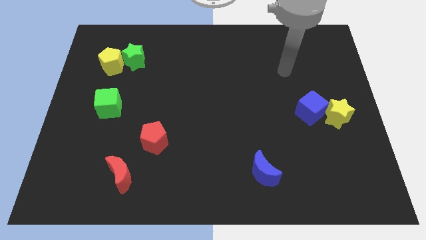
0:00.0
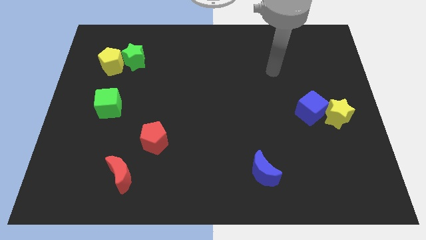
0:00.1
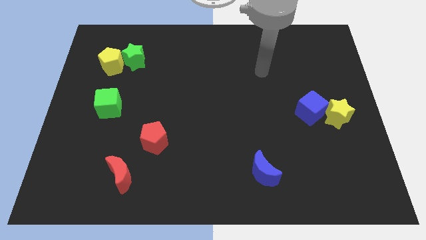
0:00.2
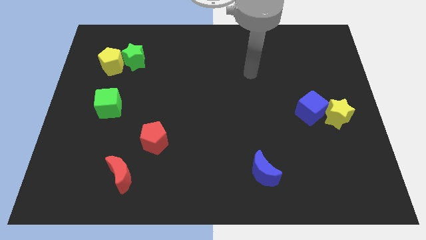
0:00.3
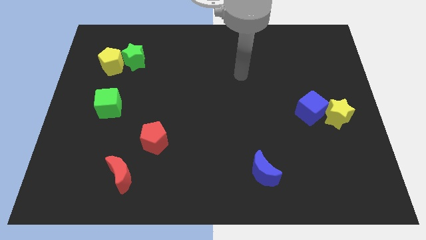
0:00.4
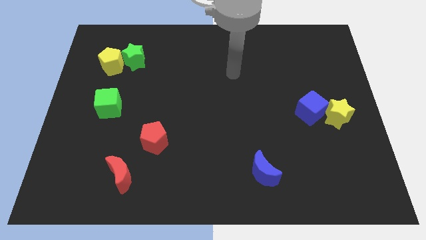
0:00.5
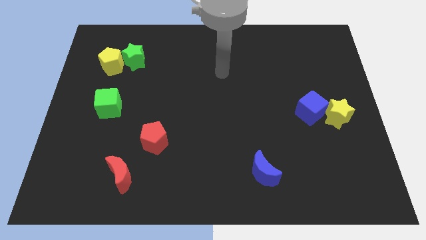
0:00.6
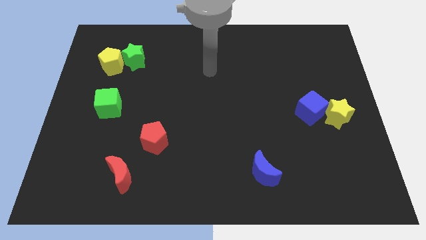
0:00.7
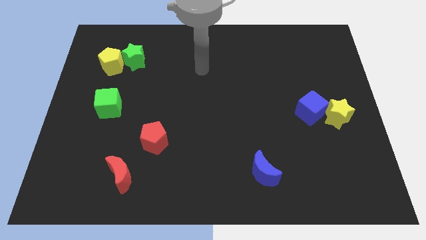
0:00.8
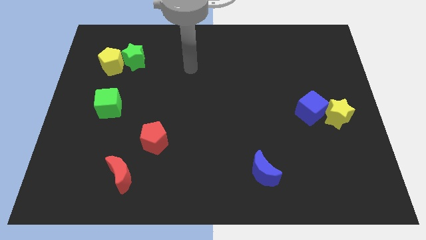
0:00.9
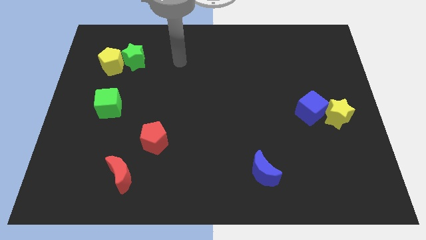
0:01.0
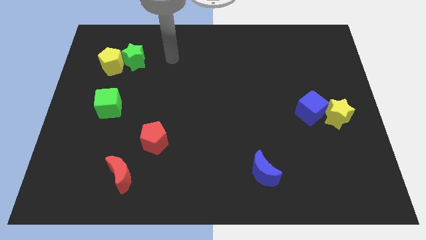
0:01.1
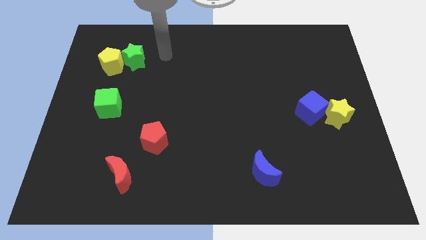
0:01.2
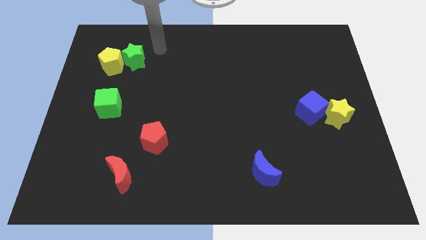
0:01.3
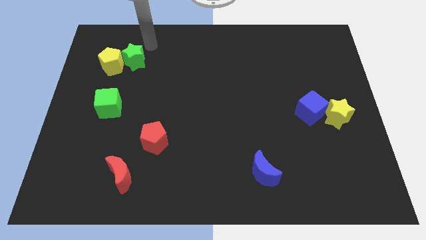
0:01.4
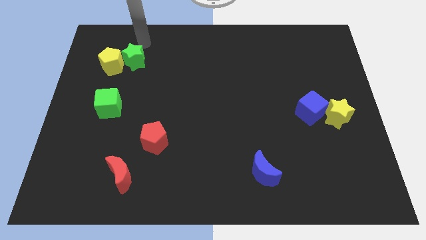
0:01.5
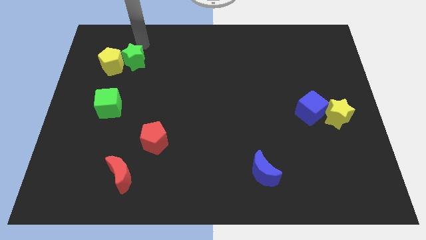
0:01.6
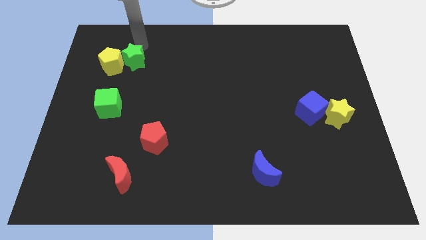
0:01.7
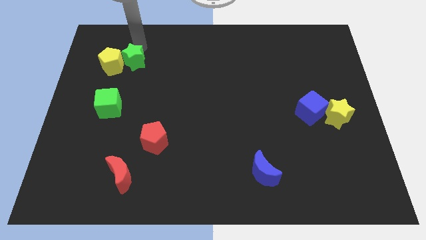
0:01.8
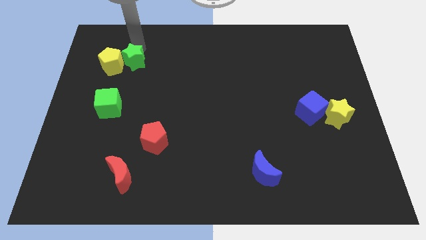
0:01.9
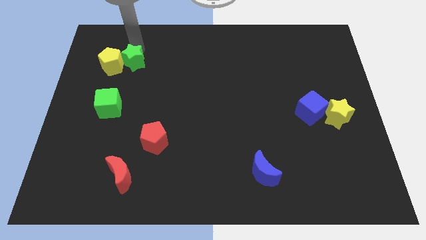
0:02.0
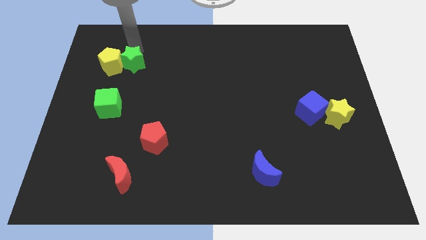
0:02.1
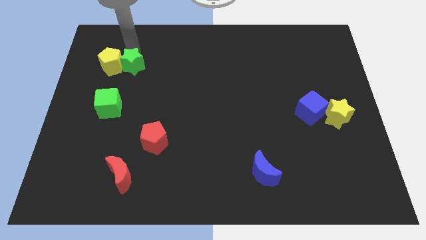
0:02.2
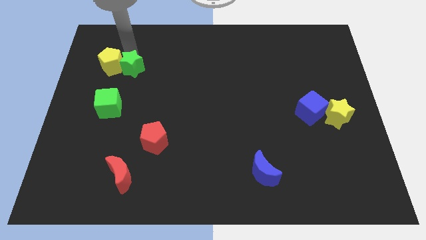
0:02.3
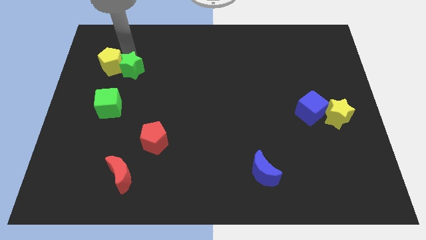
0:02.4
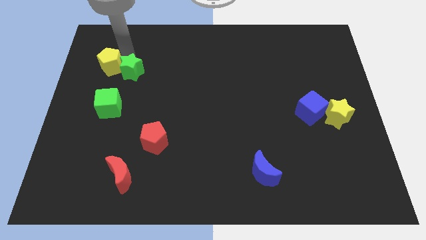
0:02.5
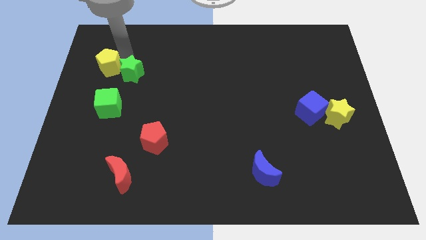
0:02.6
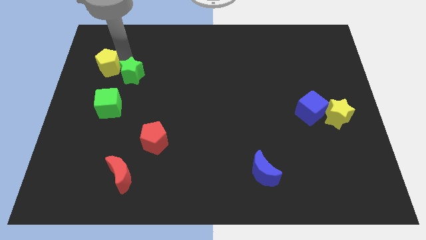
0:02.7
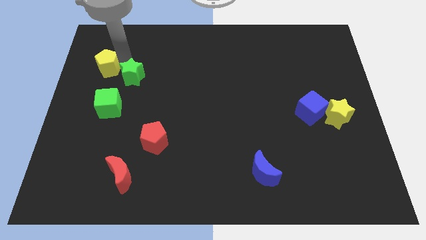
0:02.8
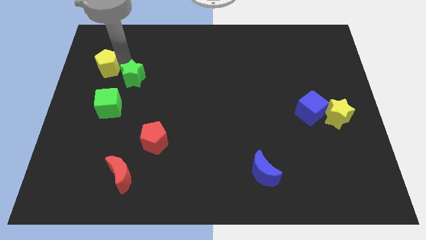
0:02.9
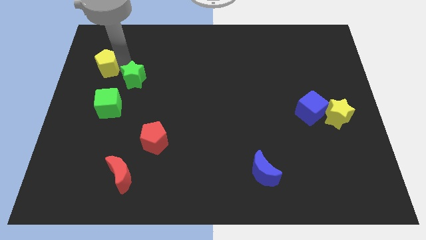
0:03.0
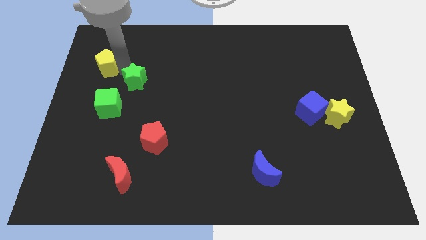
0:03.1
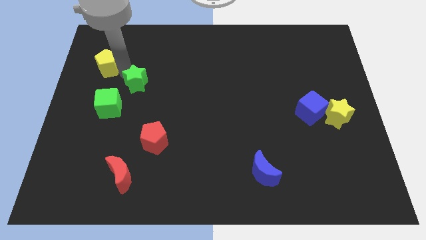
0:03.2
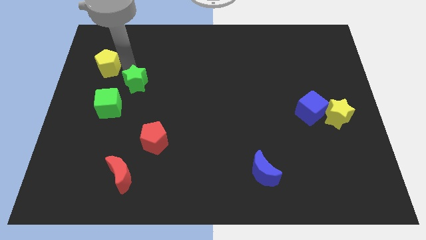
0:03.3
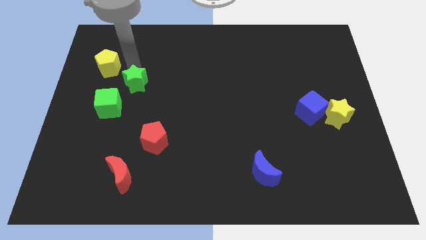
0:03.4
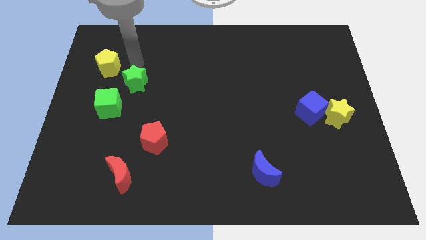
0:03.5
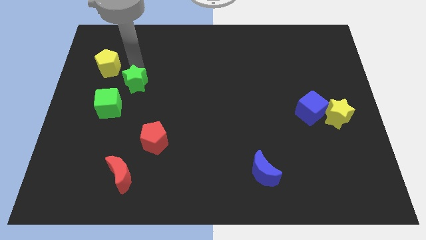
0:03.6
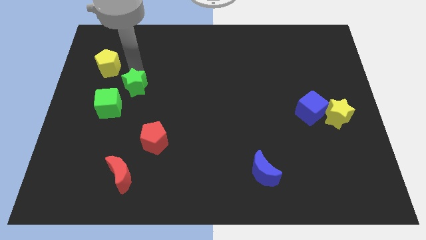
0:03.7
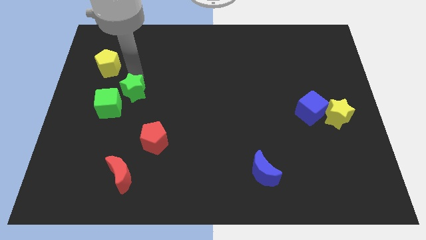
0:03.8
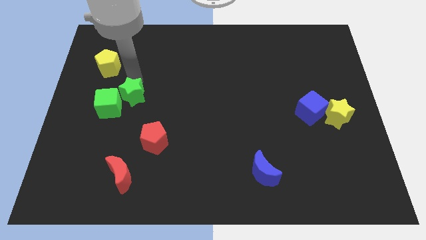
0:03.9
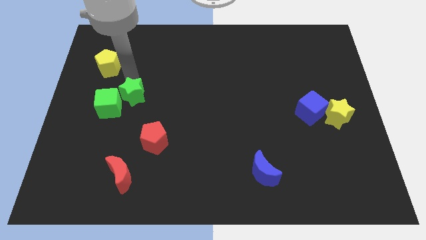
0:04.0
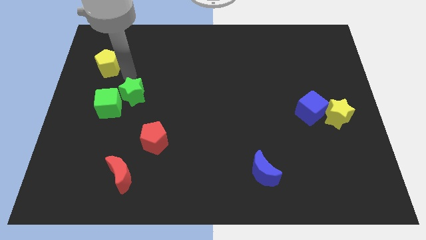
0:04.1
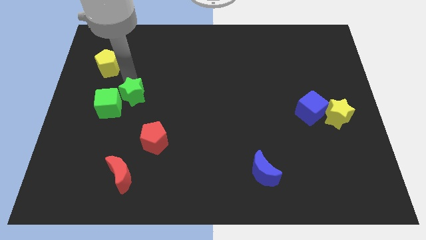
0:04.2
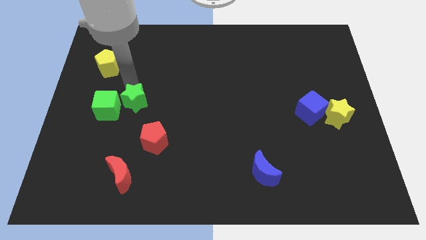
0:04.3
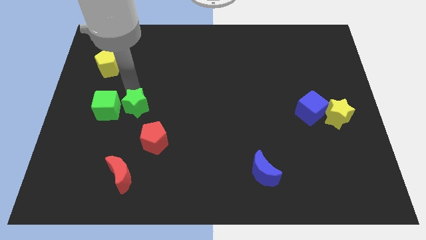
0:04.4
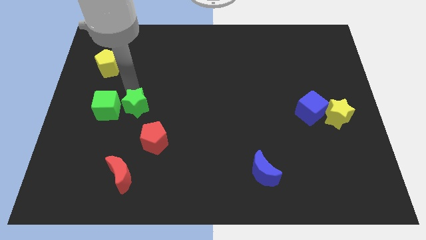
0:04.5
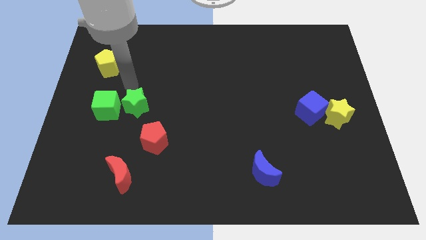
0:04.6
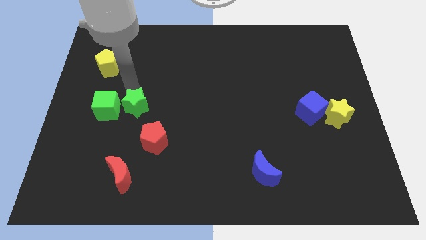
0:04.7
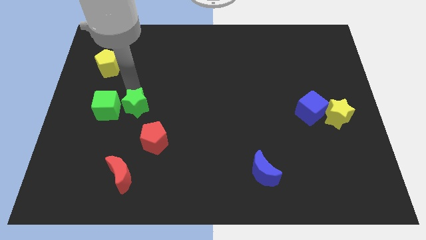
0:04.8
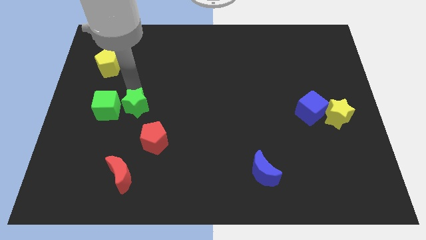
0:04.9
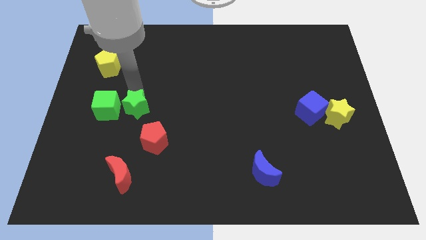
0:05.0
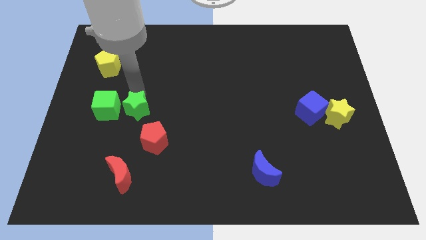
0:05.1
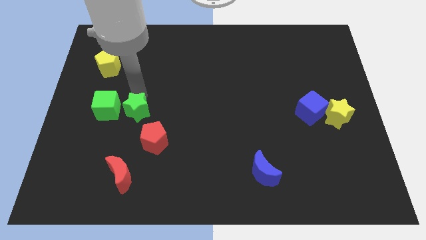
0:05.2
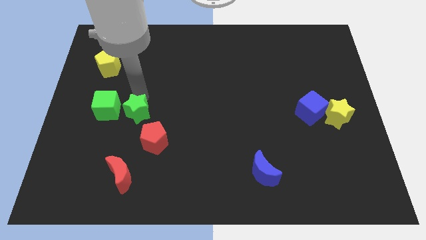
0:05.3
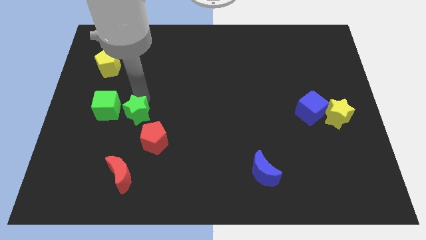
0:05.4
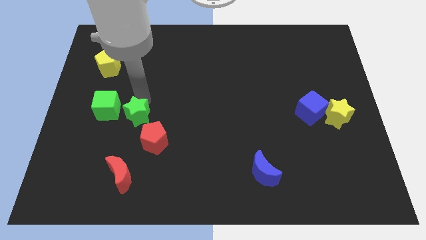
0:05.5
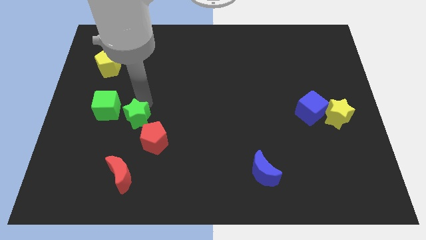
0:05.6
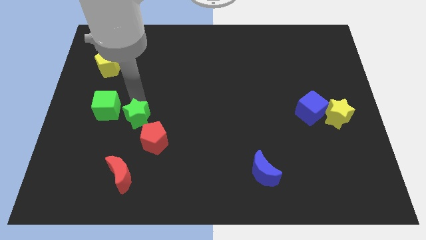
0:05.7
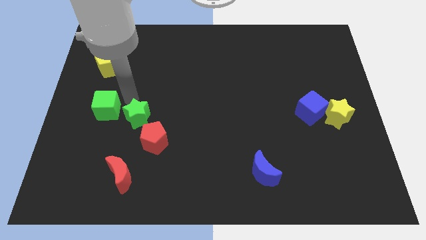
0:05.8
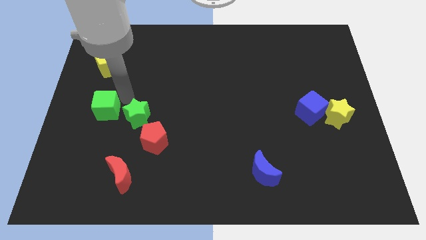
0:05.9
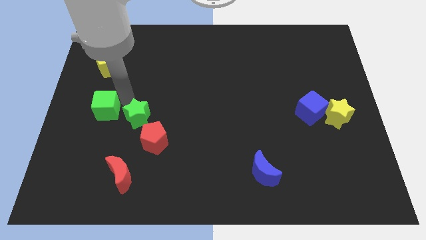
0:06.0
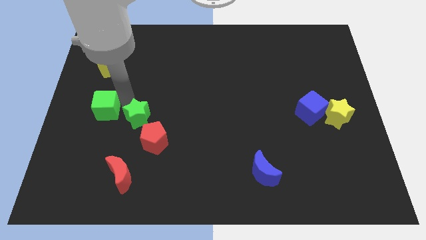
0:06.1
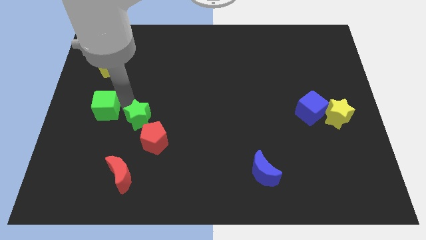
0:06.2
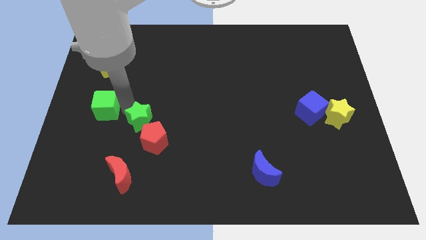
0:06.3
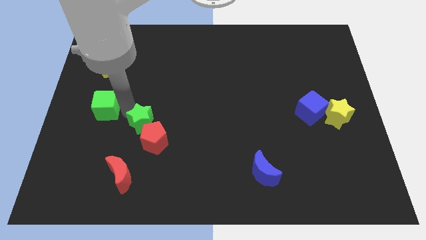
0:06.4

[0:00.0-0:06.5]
put the green star towards the red pentagon

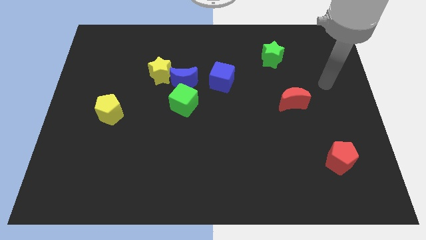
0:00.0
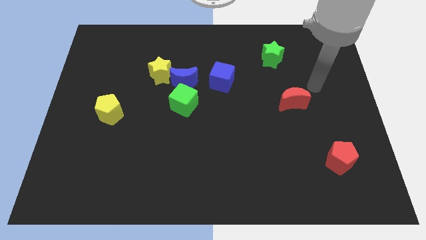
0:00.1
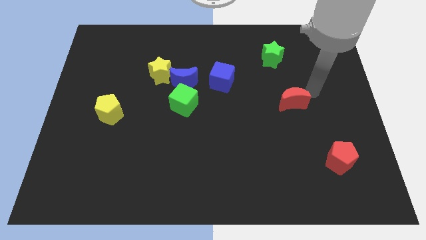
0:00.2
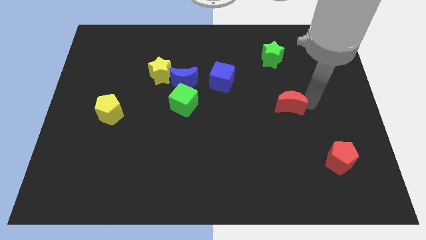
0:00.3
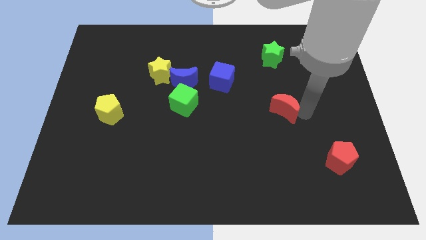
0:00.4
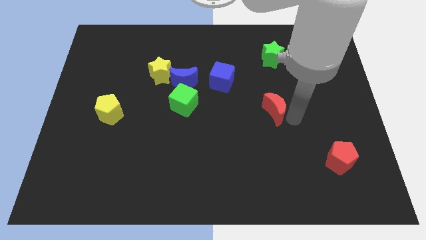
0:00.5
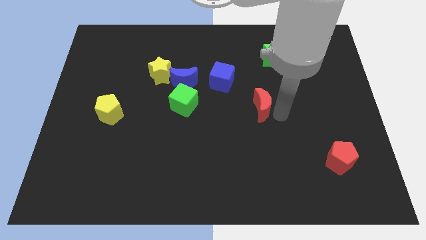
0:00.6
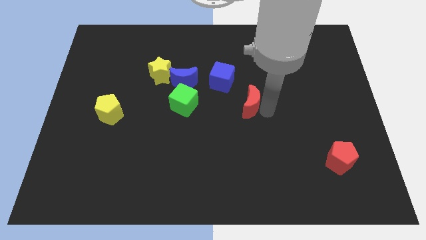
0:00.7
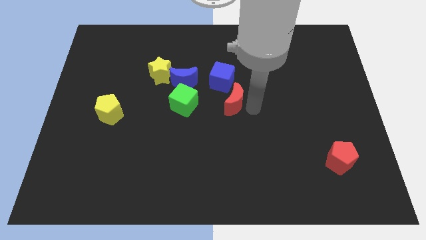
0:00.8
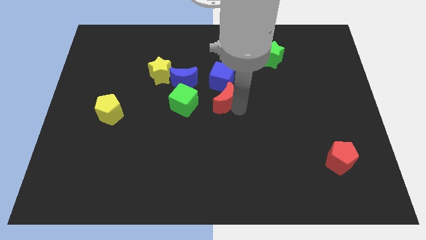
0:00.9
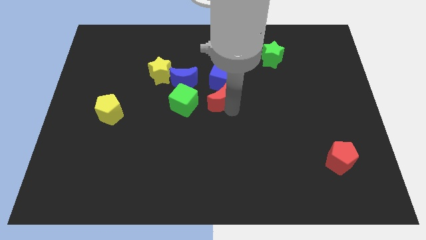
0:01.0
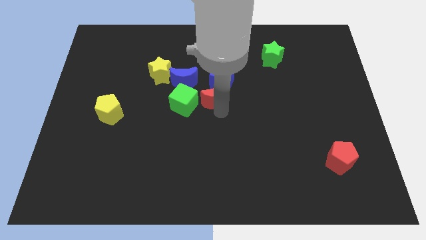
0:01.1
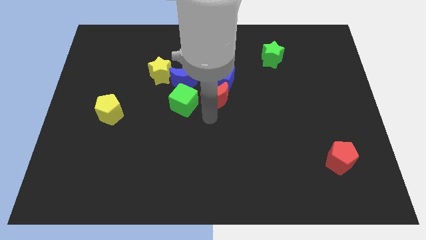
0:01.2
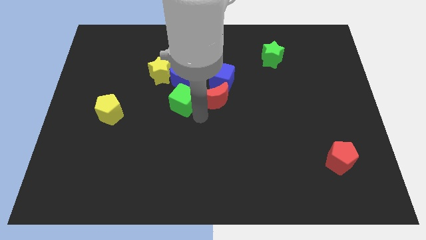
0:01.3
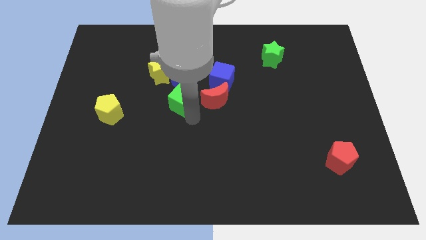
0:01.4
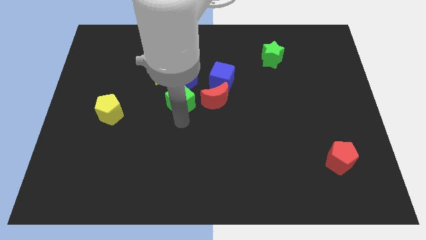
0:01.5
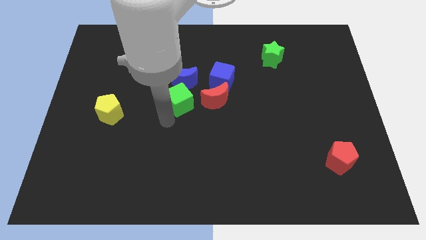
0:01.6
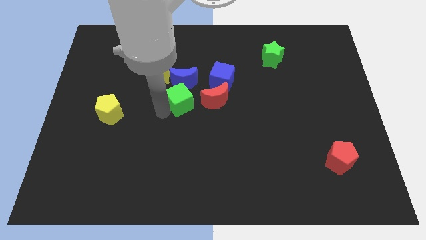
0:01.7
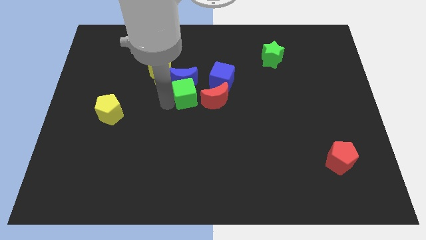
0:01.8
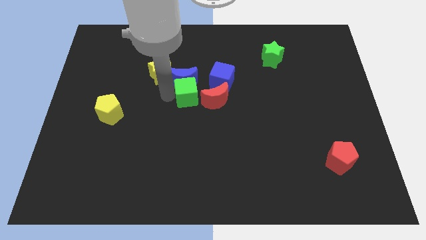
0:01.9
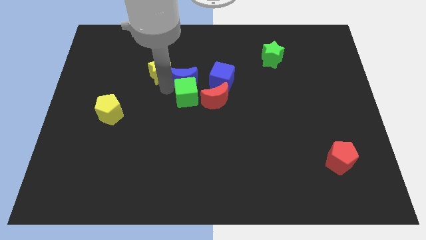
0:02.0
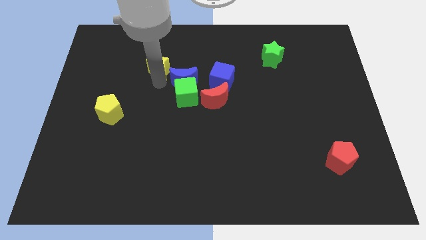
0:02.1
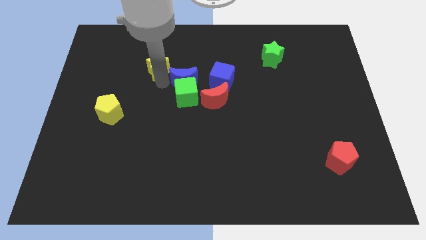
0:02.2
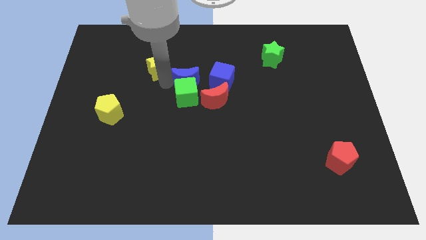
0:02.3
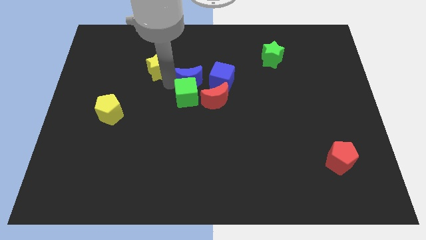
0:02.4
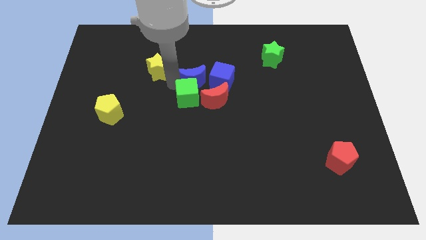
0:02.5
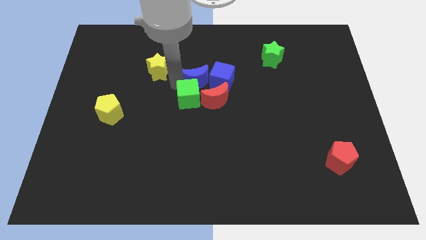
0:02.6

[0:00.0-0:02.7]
slide the blue moon close to the blue cube
